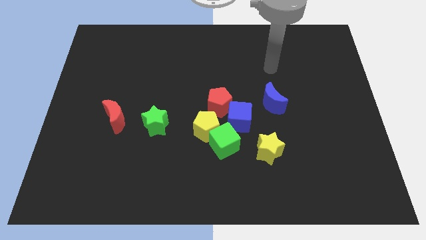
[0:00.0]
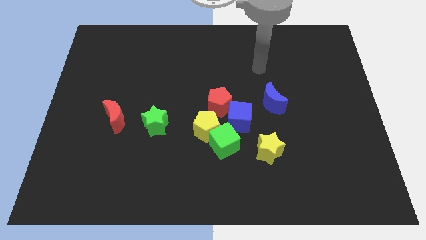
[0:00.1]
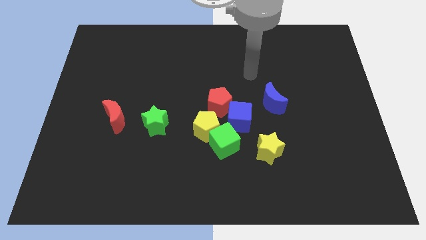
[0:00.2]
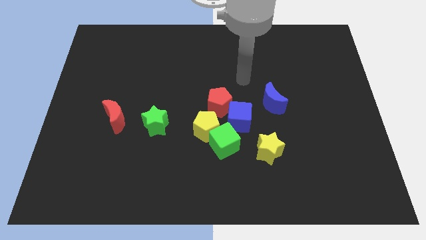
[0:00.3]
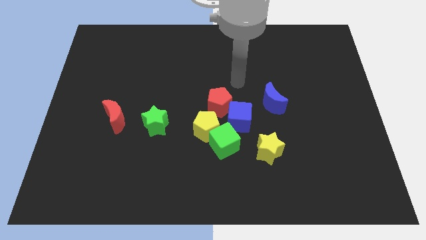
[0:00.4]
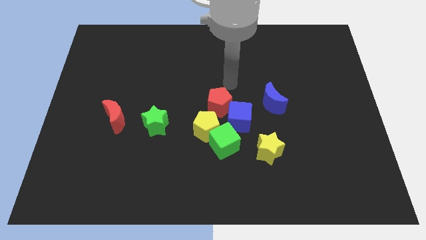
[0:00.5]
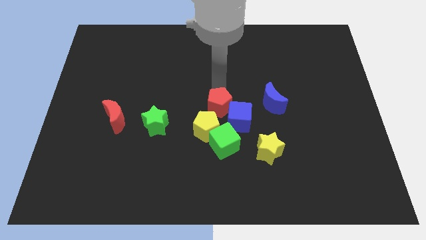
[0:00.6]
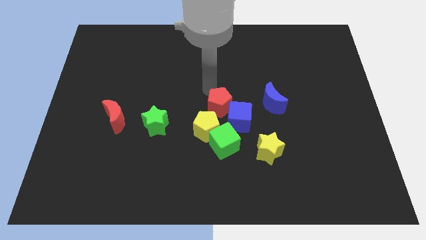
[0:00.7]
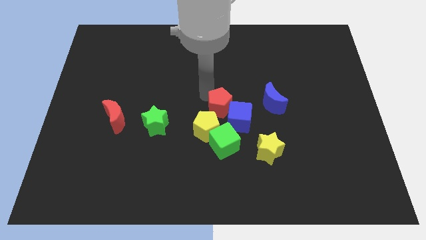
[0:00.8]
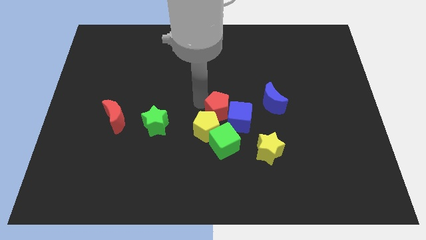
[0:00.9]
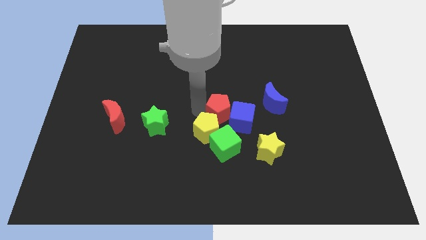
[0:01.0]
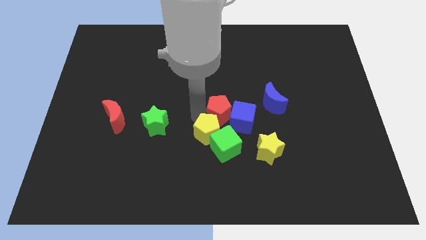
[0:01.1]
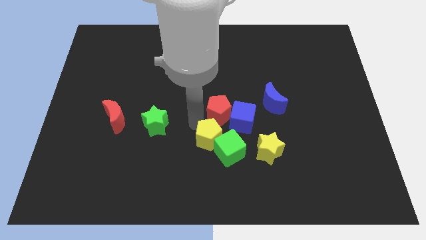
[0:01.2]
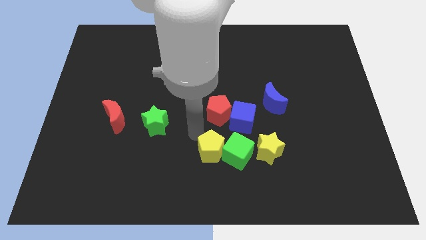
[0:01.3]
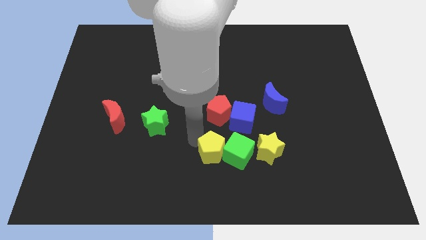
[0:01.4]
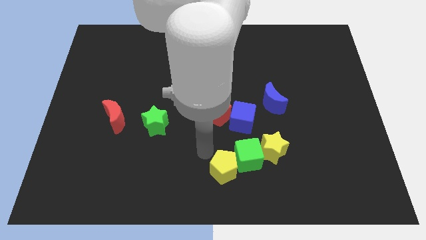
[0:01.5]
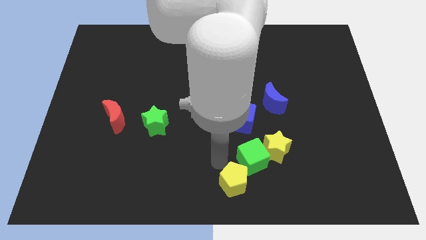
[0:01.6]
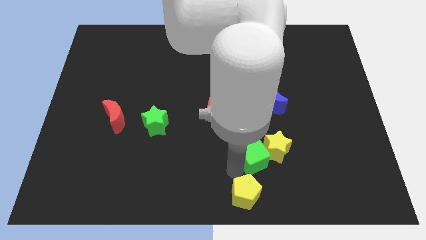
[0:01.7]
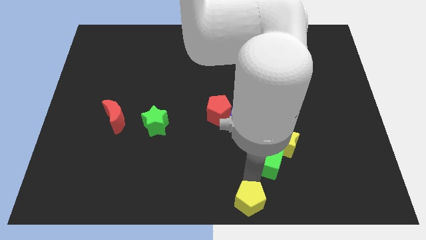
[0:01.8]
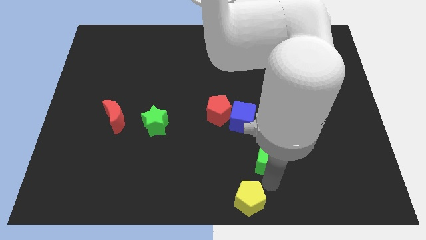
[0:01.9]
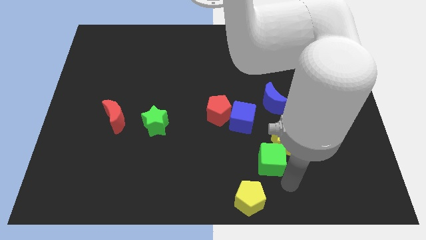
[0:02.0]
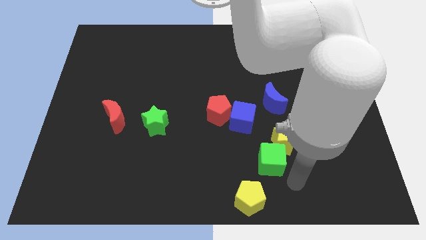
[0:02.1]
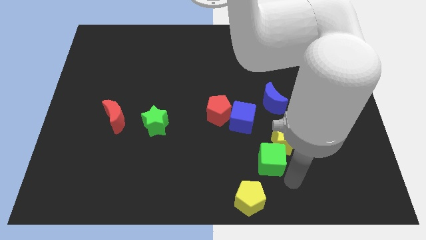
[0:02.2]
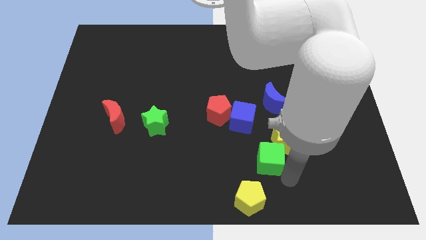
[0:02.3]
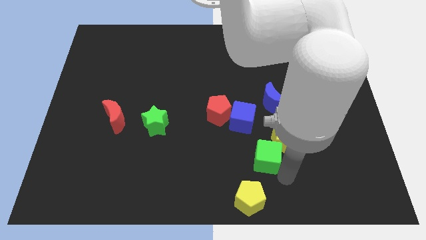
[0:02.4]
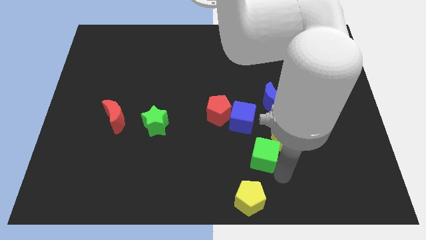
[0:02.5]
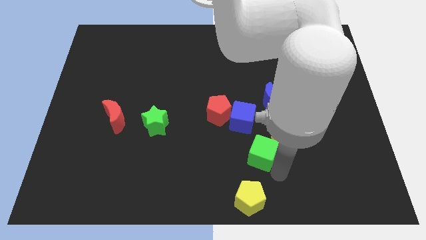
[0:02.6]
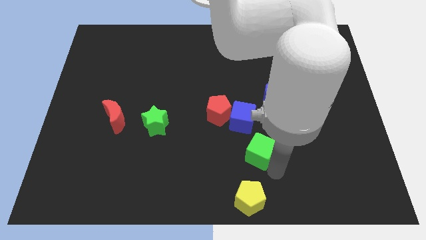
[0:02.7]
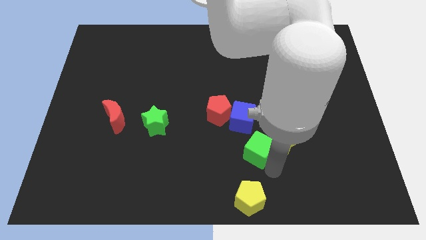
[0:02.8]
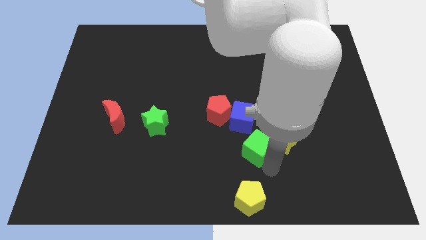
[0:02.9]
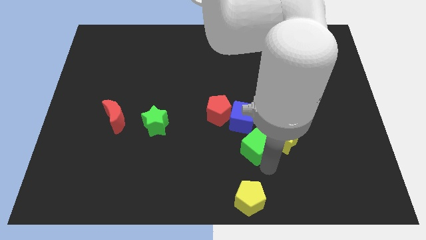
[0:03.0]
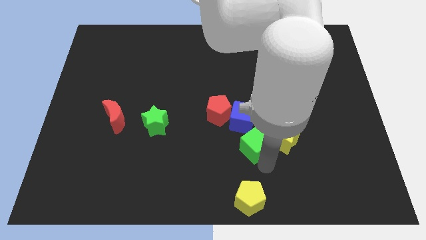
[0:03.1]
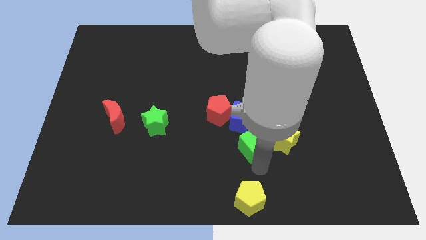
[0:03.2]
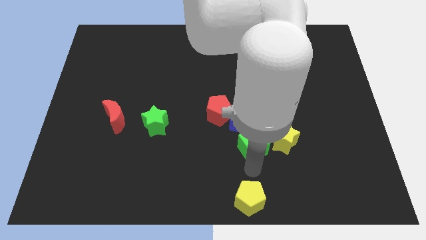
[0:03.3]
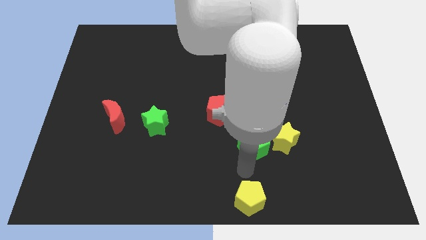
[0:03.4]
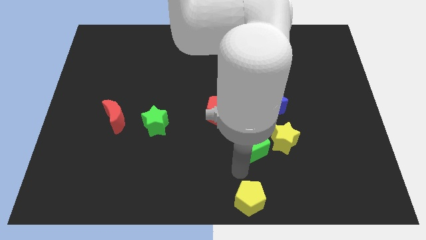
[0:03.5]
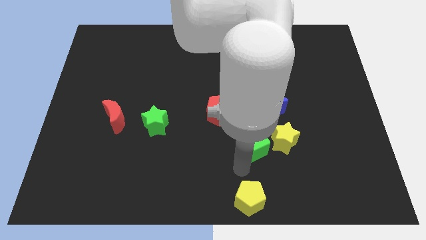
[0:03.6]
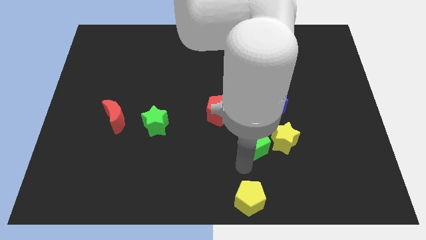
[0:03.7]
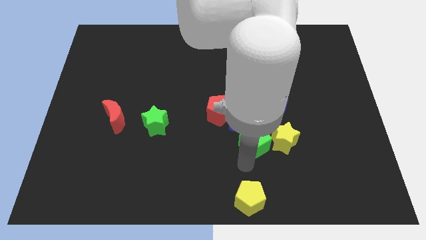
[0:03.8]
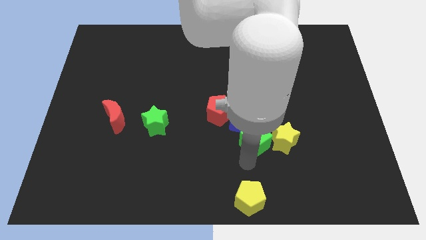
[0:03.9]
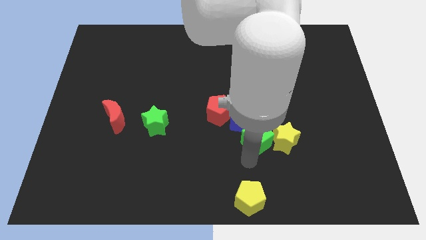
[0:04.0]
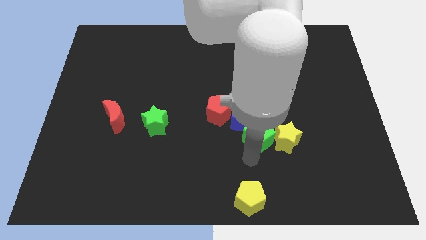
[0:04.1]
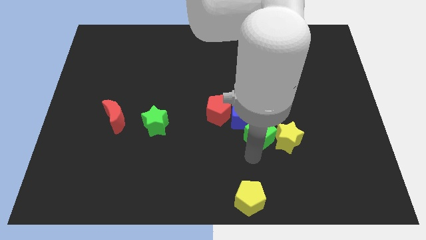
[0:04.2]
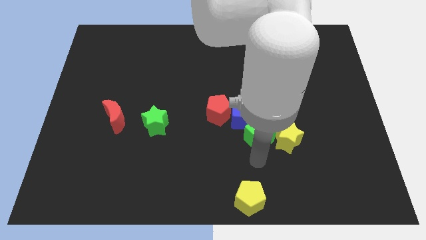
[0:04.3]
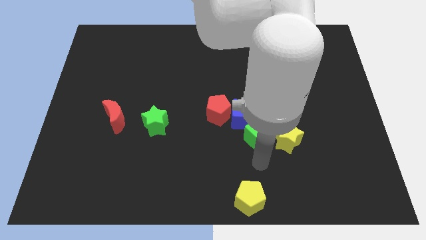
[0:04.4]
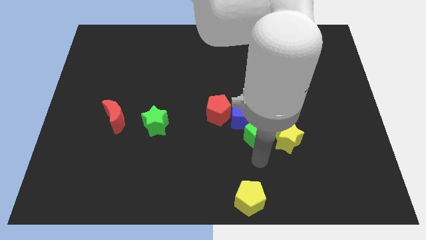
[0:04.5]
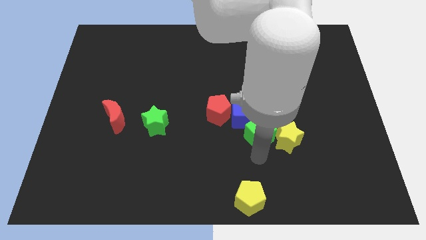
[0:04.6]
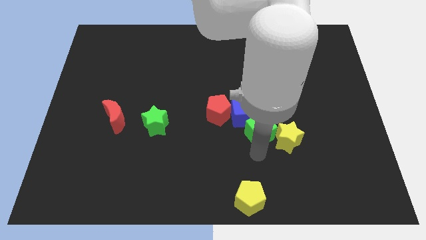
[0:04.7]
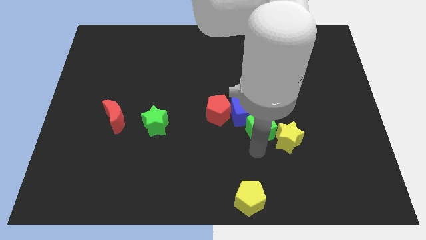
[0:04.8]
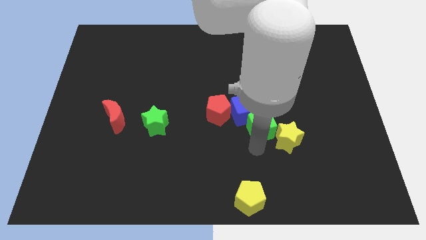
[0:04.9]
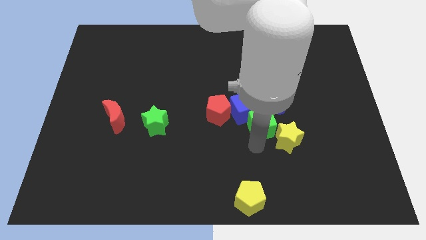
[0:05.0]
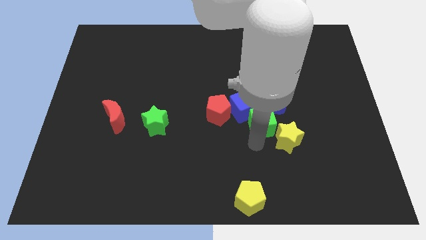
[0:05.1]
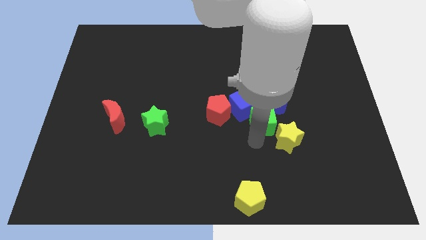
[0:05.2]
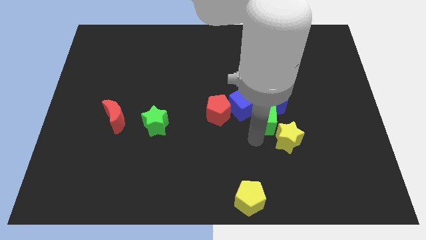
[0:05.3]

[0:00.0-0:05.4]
push the green cube next to the blue moon

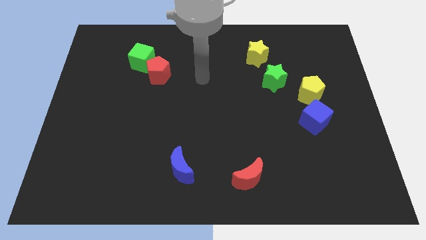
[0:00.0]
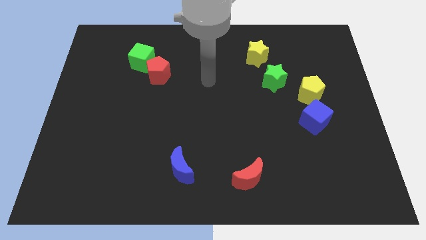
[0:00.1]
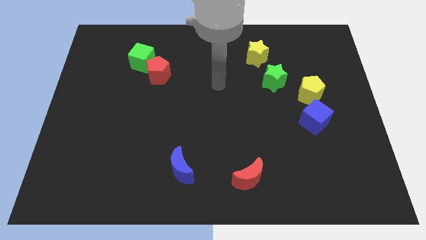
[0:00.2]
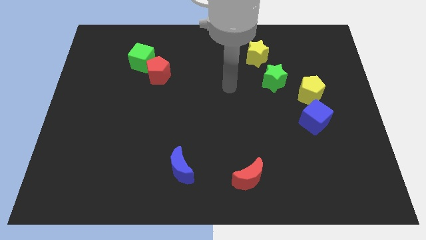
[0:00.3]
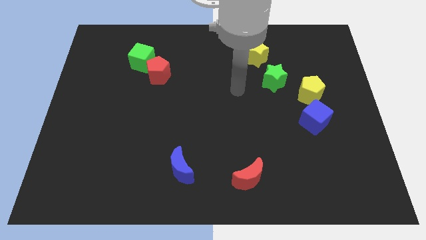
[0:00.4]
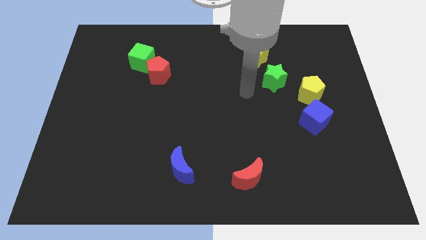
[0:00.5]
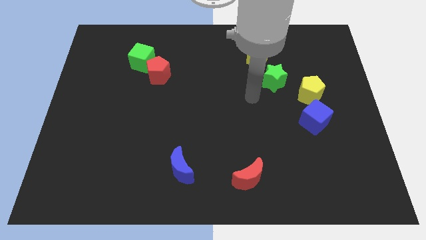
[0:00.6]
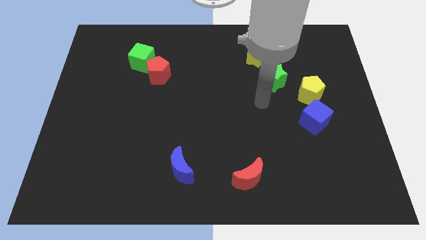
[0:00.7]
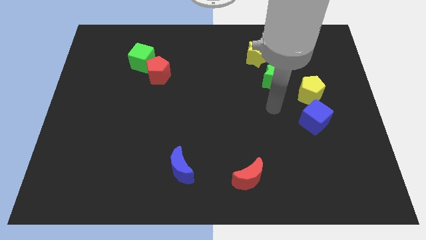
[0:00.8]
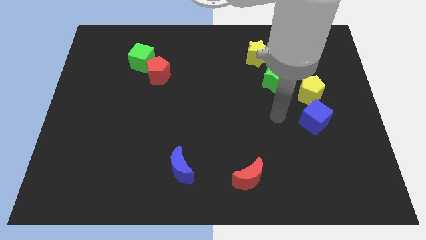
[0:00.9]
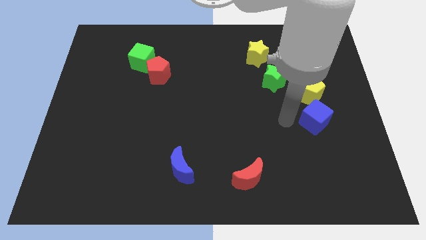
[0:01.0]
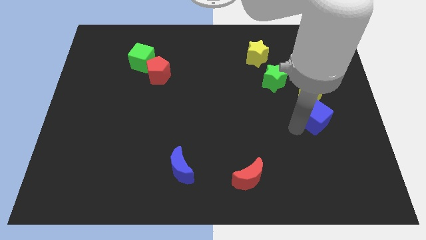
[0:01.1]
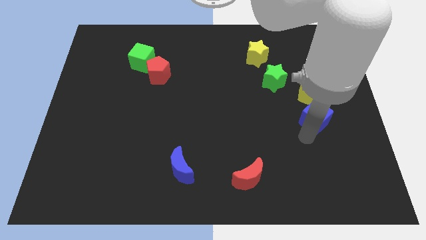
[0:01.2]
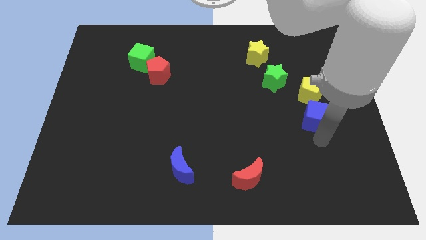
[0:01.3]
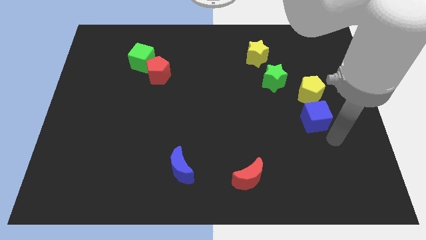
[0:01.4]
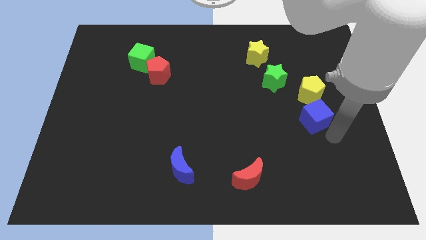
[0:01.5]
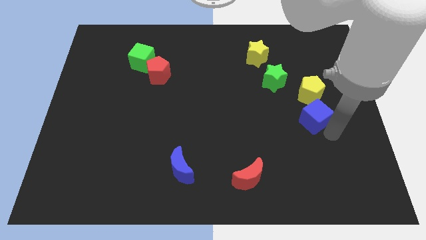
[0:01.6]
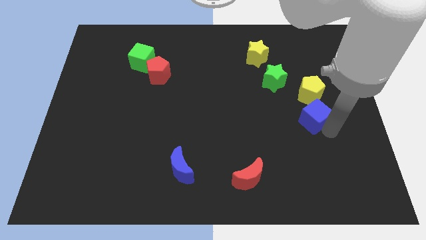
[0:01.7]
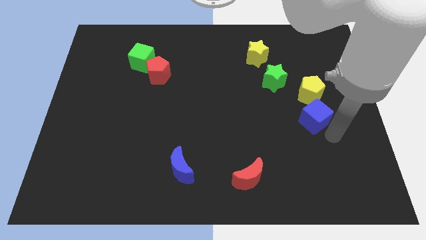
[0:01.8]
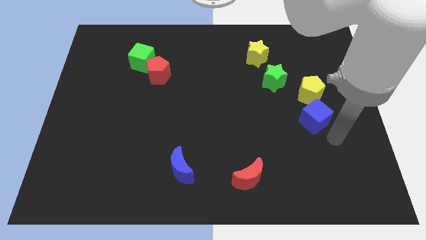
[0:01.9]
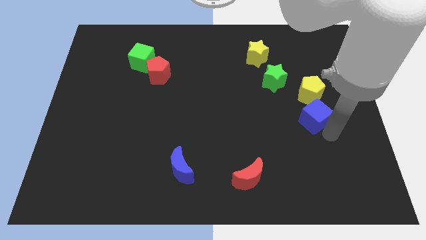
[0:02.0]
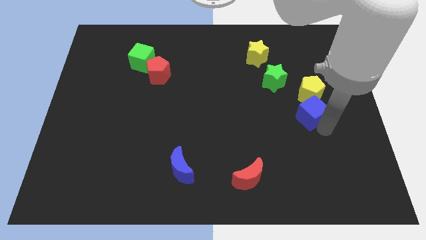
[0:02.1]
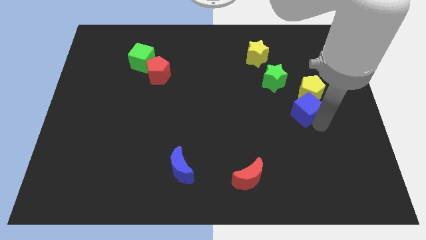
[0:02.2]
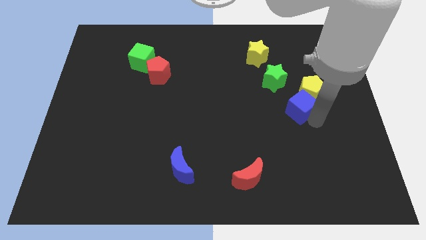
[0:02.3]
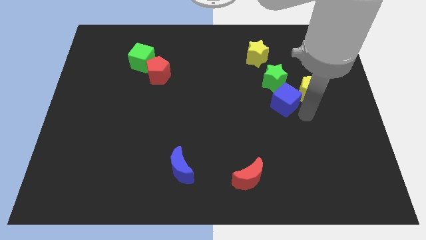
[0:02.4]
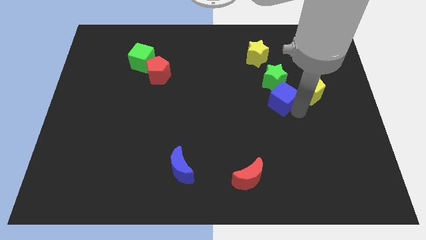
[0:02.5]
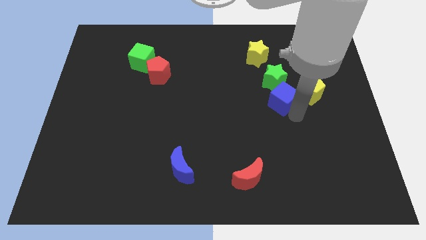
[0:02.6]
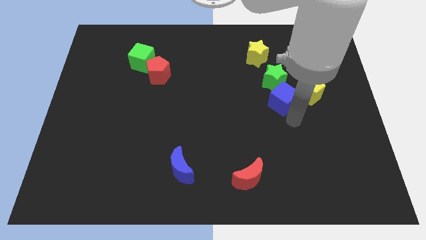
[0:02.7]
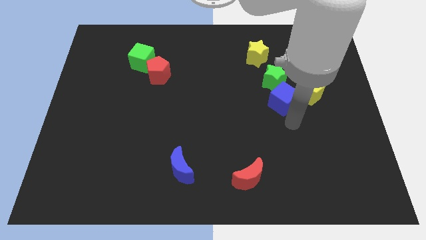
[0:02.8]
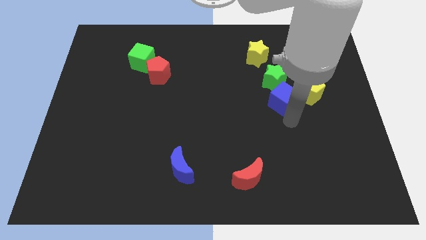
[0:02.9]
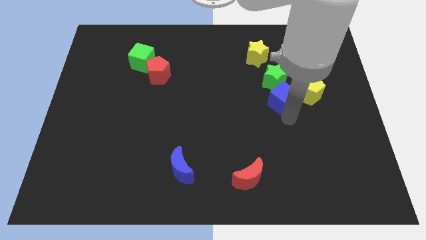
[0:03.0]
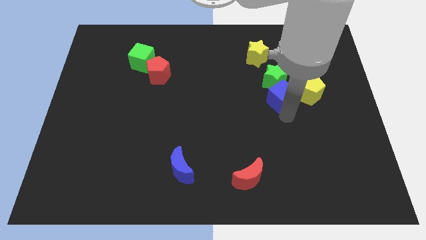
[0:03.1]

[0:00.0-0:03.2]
move the blue cube close to the green star
